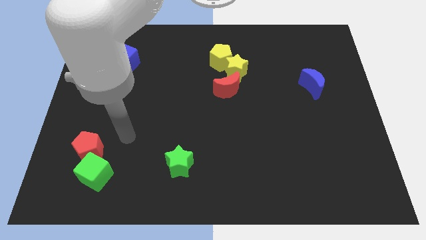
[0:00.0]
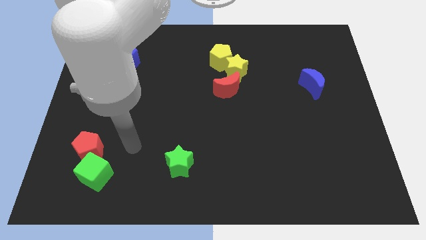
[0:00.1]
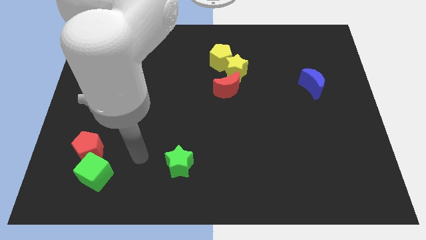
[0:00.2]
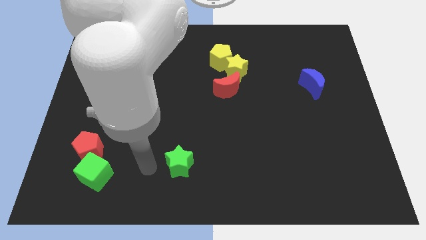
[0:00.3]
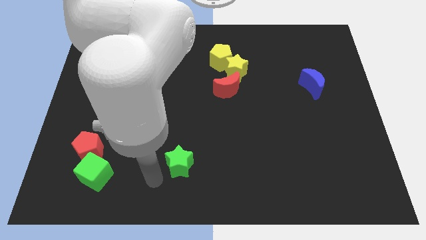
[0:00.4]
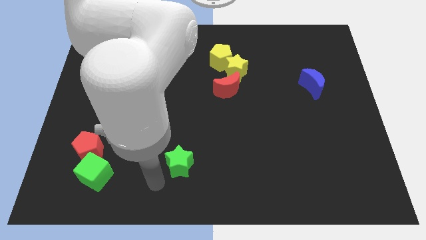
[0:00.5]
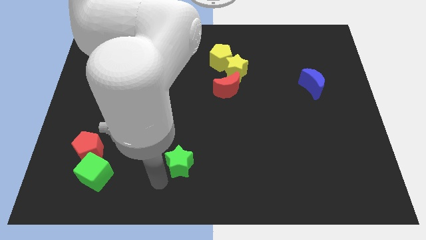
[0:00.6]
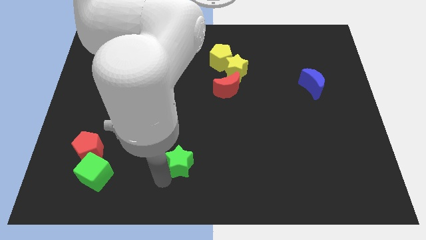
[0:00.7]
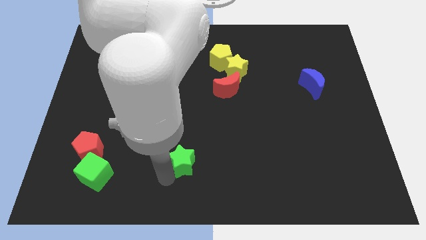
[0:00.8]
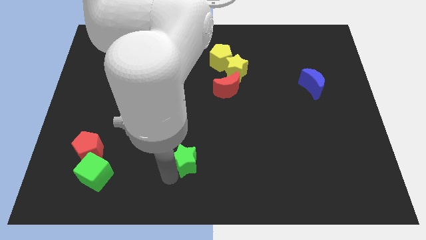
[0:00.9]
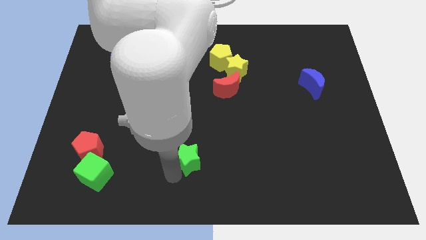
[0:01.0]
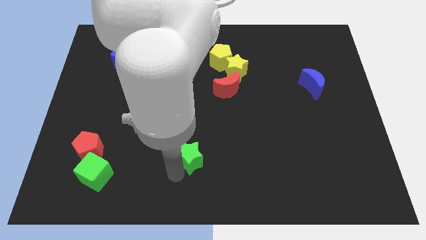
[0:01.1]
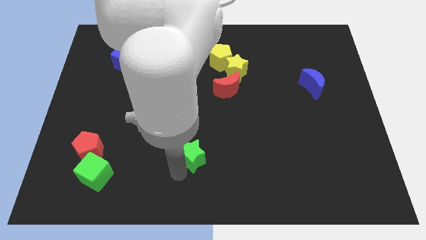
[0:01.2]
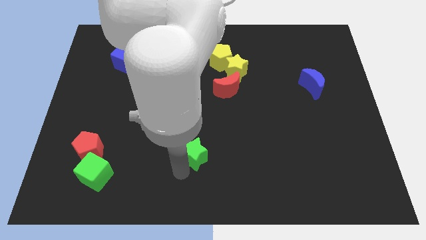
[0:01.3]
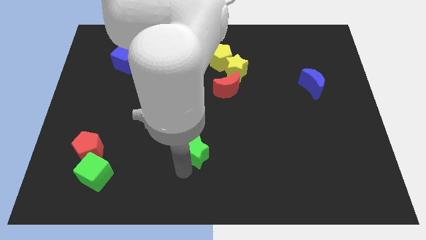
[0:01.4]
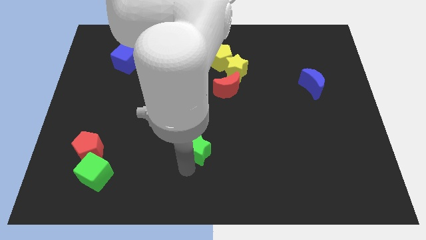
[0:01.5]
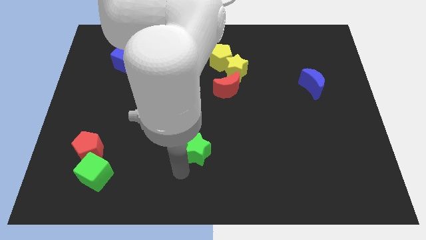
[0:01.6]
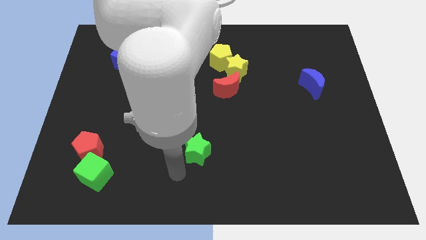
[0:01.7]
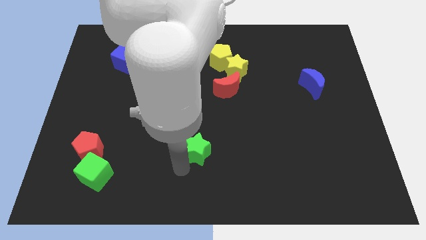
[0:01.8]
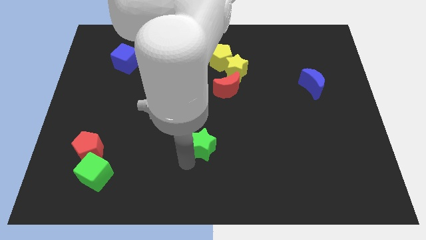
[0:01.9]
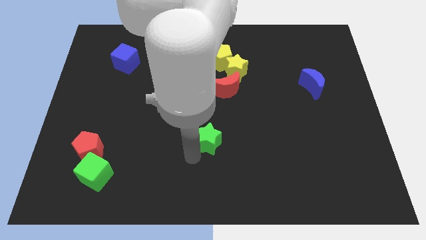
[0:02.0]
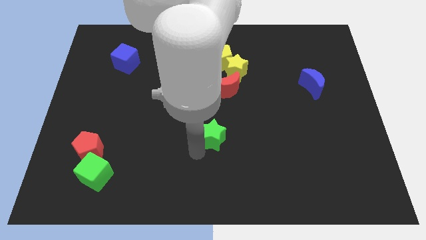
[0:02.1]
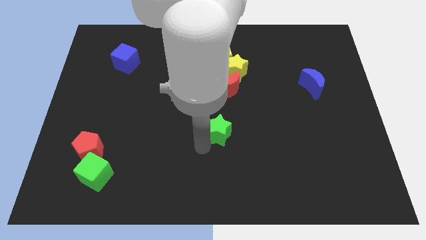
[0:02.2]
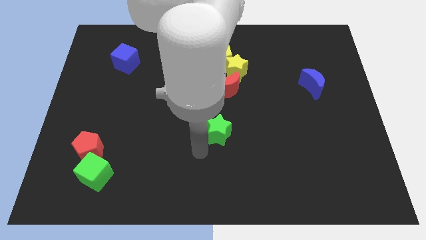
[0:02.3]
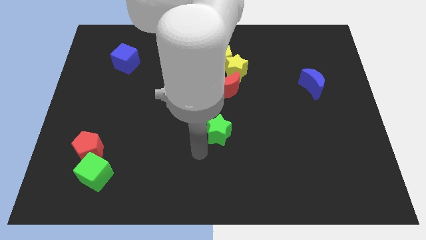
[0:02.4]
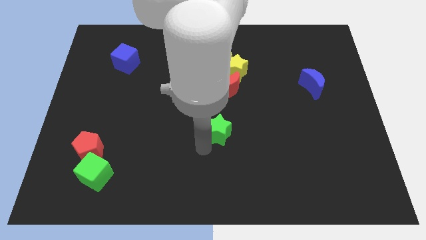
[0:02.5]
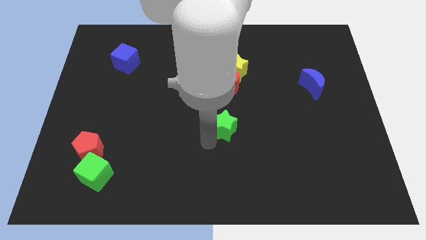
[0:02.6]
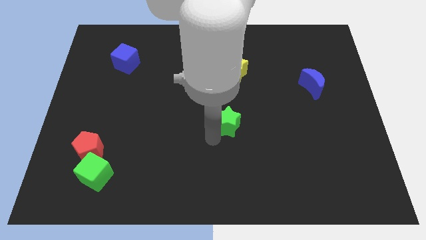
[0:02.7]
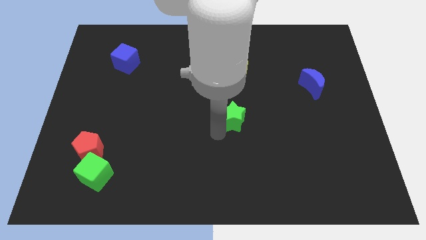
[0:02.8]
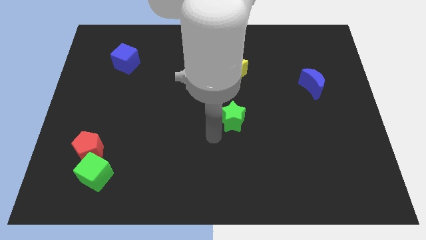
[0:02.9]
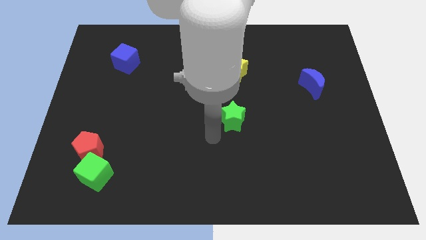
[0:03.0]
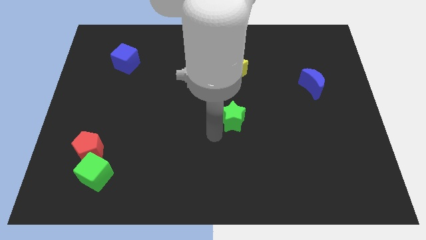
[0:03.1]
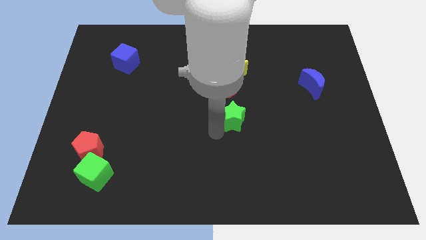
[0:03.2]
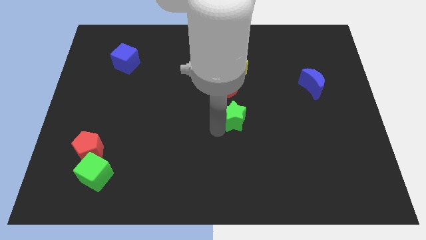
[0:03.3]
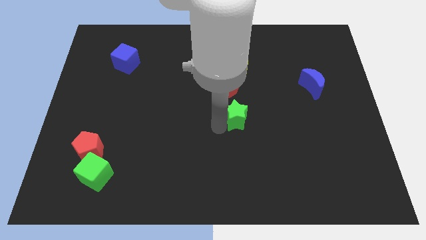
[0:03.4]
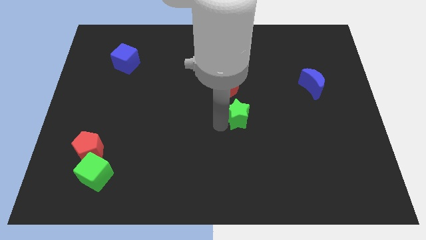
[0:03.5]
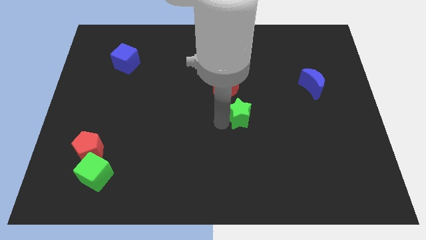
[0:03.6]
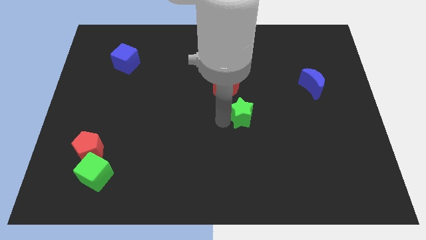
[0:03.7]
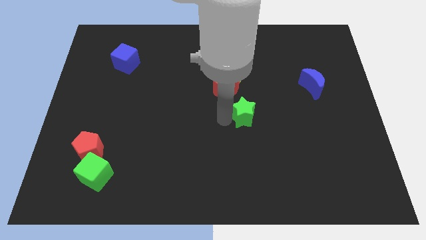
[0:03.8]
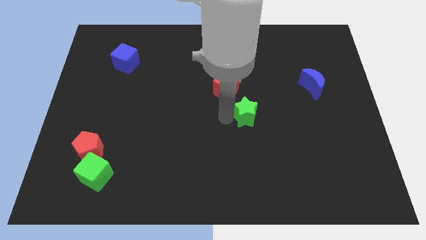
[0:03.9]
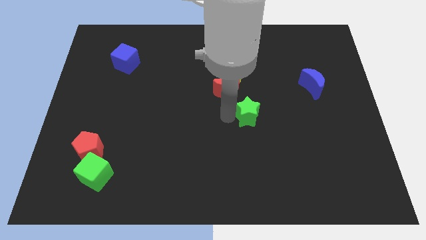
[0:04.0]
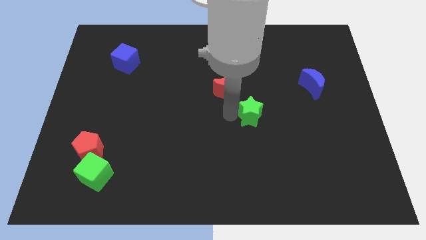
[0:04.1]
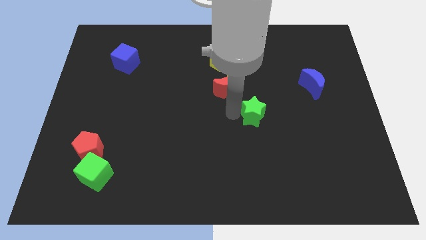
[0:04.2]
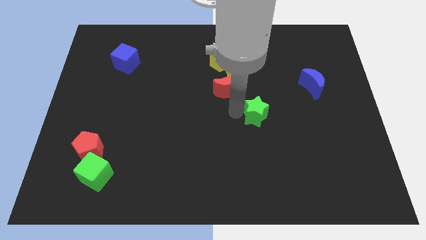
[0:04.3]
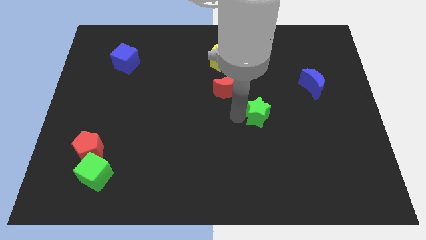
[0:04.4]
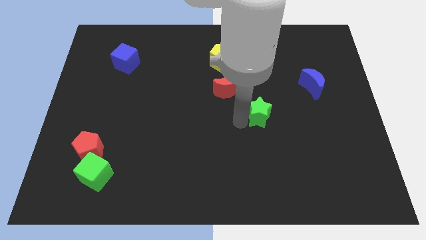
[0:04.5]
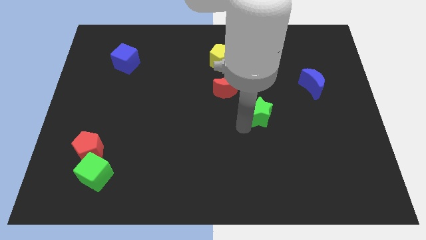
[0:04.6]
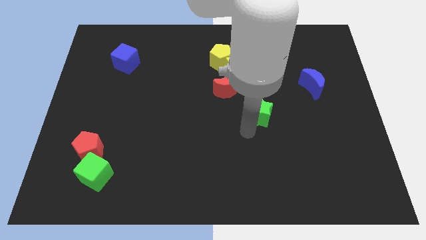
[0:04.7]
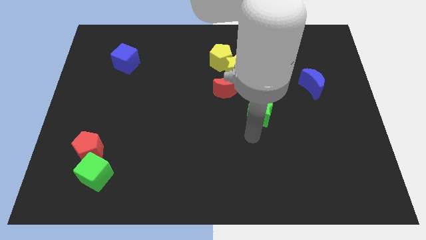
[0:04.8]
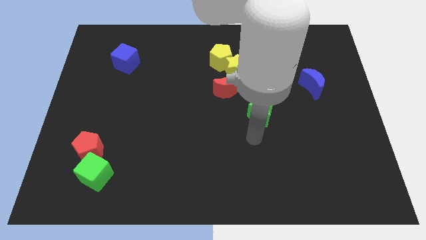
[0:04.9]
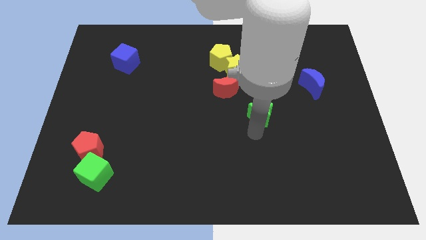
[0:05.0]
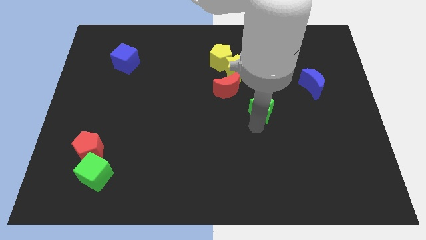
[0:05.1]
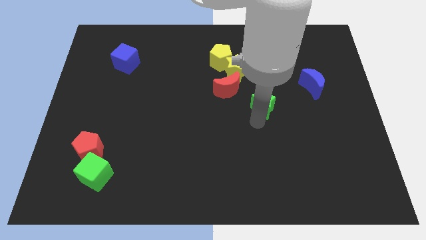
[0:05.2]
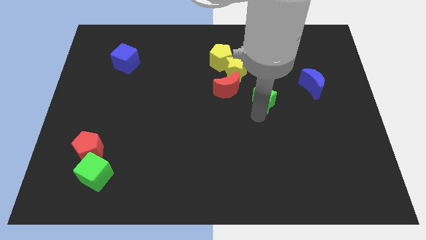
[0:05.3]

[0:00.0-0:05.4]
slide the green star right of the red moon

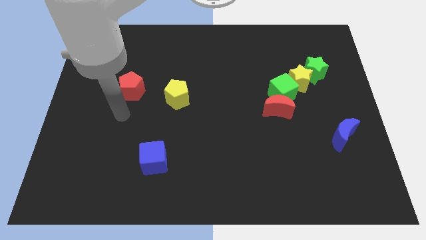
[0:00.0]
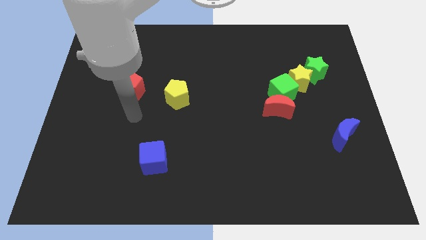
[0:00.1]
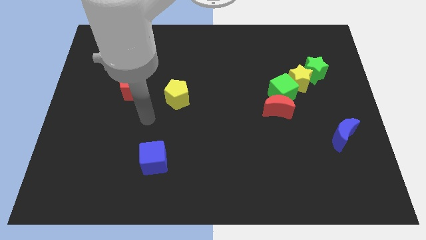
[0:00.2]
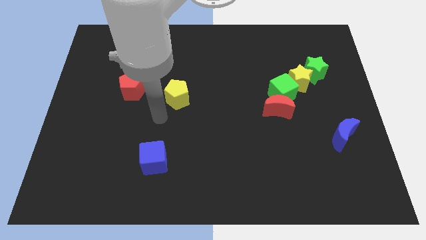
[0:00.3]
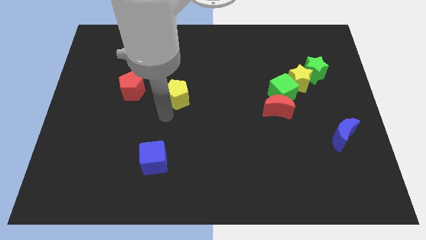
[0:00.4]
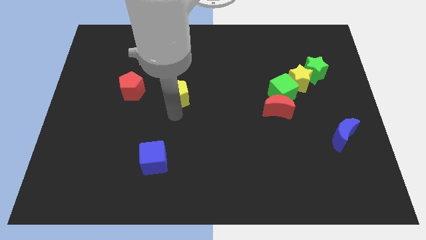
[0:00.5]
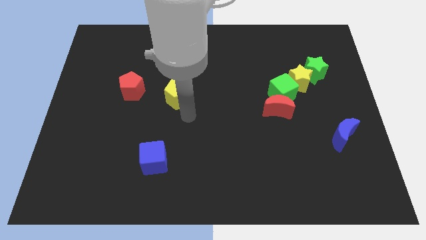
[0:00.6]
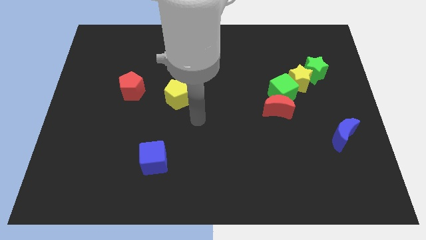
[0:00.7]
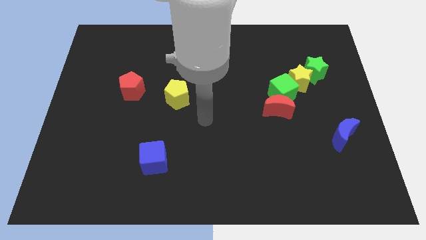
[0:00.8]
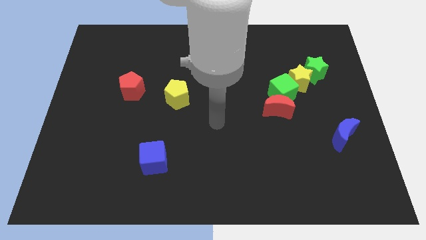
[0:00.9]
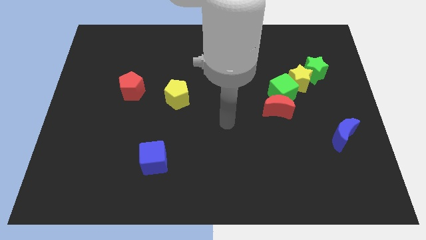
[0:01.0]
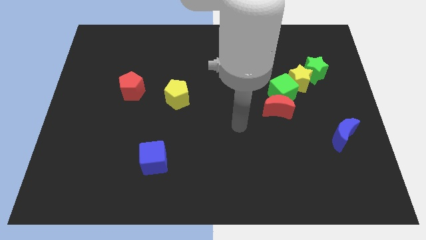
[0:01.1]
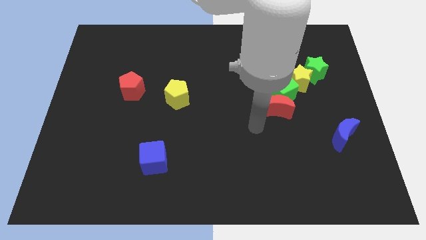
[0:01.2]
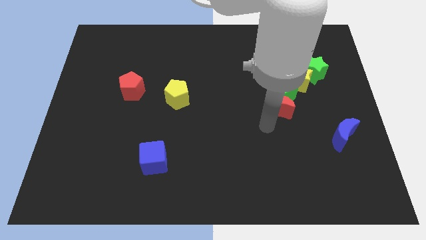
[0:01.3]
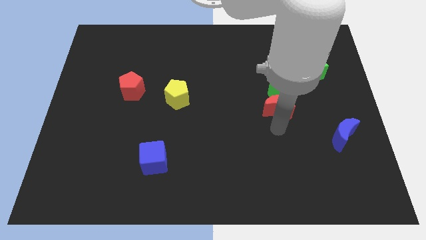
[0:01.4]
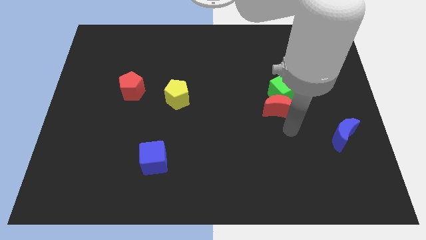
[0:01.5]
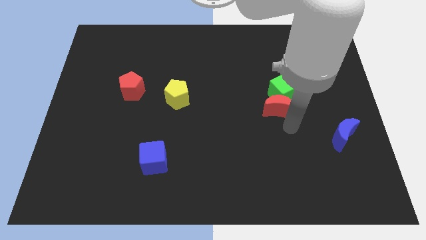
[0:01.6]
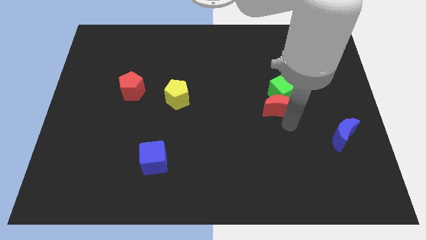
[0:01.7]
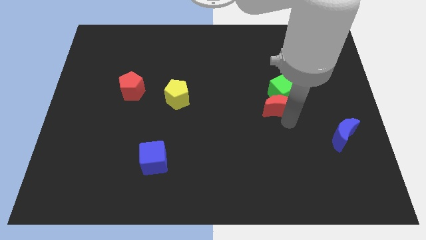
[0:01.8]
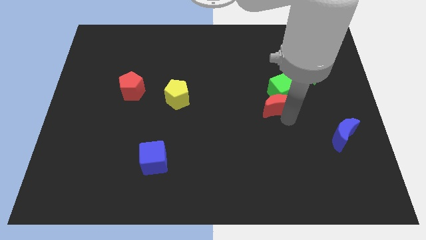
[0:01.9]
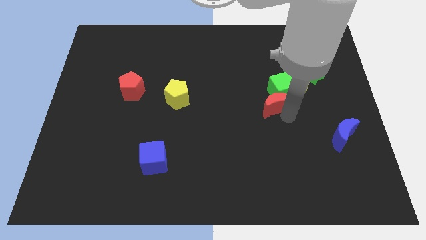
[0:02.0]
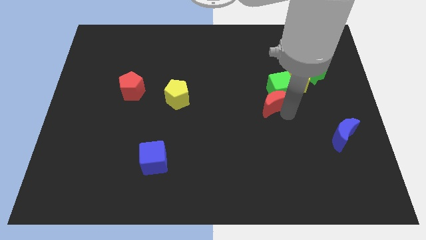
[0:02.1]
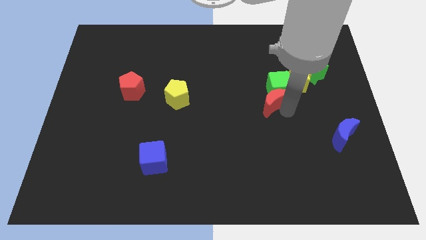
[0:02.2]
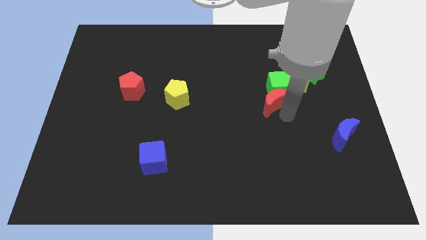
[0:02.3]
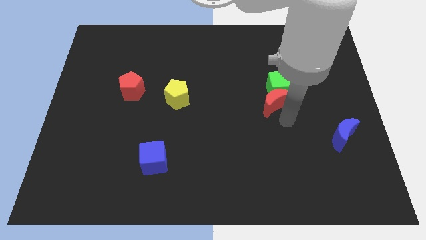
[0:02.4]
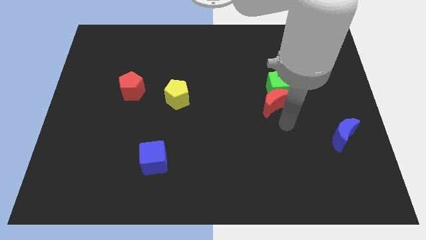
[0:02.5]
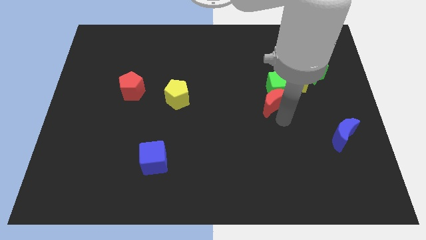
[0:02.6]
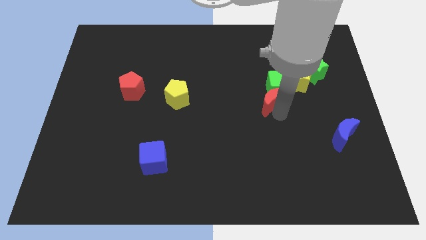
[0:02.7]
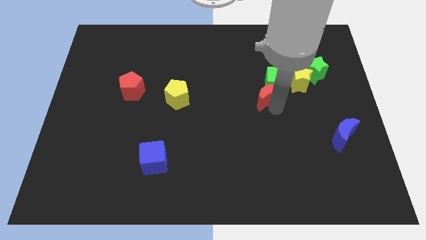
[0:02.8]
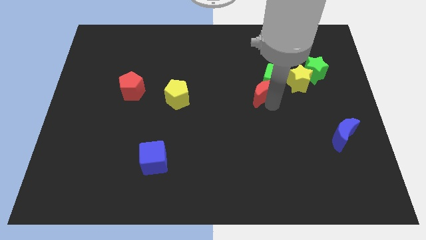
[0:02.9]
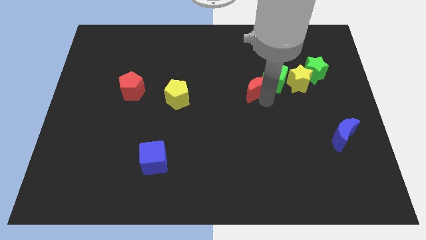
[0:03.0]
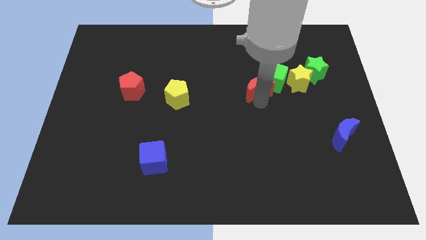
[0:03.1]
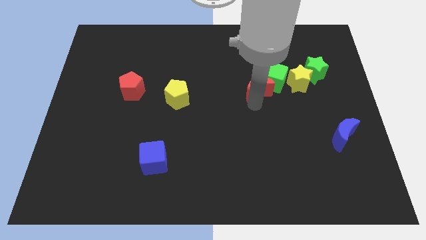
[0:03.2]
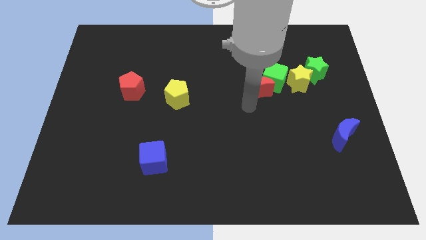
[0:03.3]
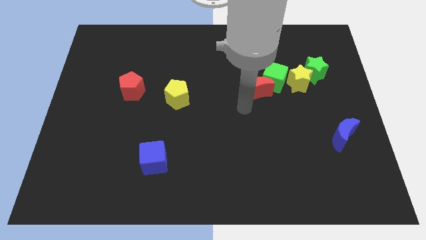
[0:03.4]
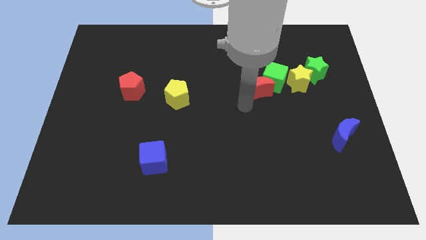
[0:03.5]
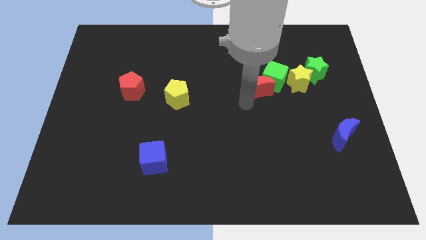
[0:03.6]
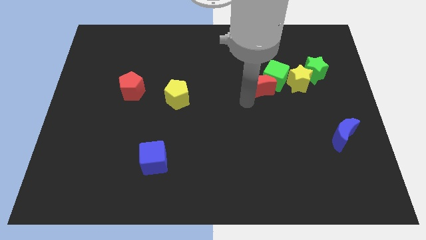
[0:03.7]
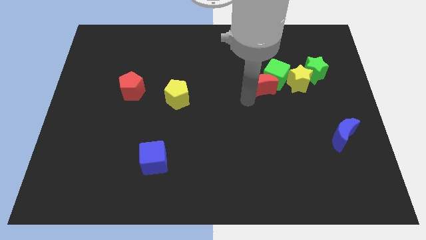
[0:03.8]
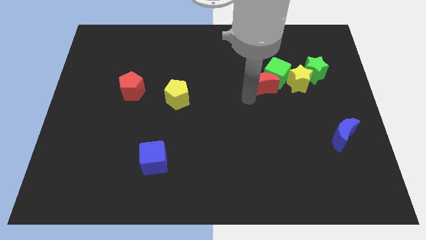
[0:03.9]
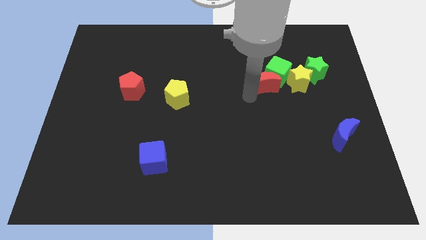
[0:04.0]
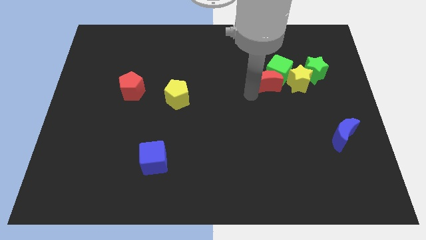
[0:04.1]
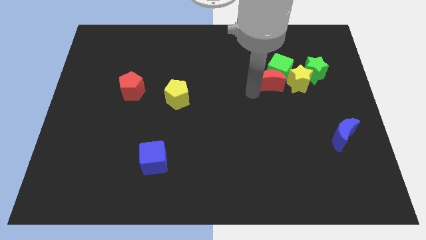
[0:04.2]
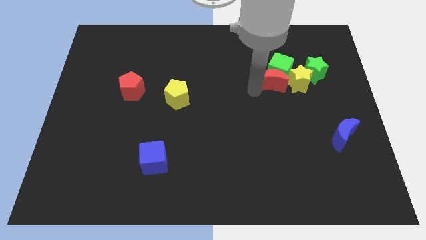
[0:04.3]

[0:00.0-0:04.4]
slide the red moon to the top left side of the yellow star
